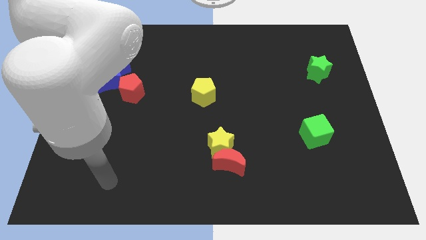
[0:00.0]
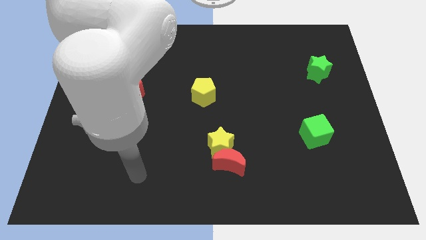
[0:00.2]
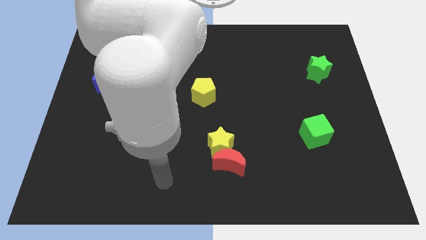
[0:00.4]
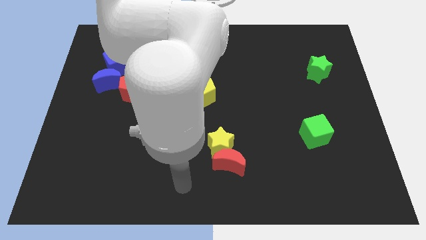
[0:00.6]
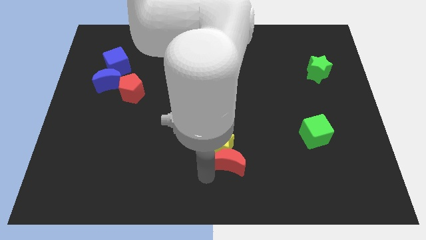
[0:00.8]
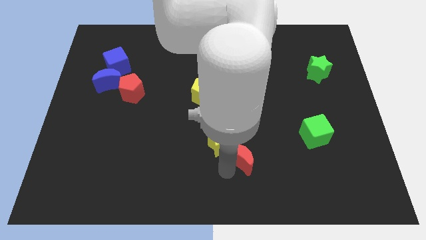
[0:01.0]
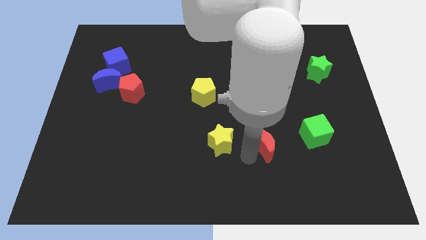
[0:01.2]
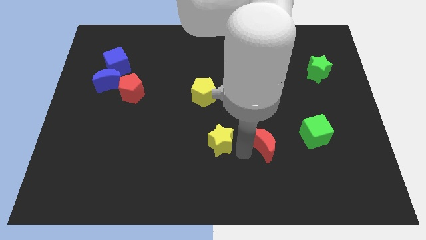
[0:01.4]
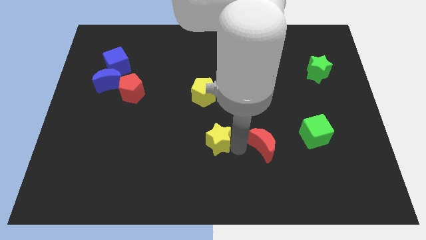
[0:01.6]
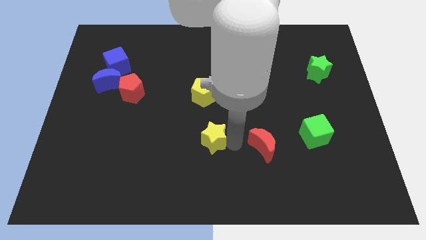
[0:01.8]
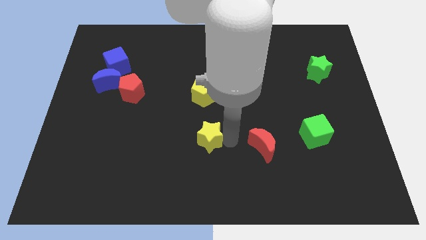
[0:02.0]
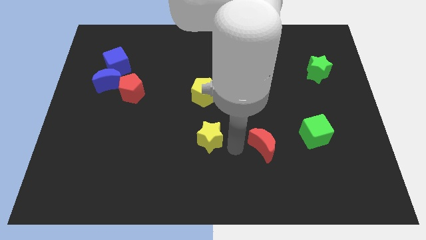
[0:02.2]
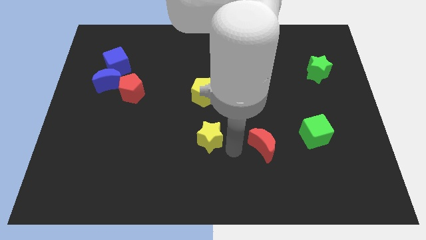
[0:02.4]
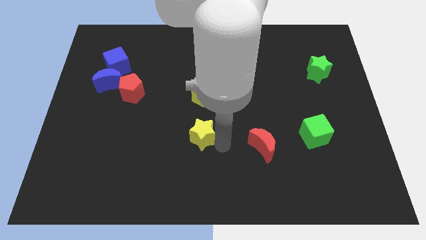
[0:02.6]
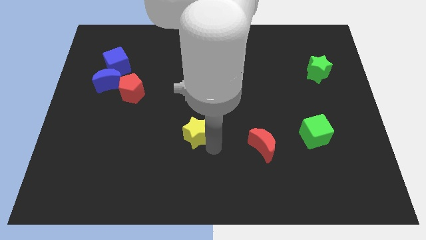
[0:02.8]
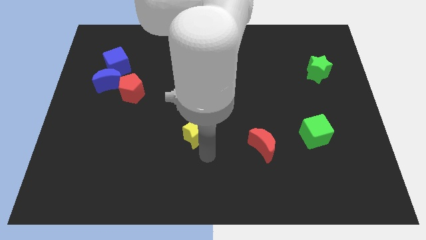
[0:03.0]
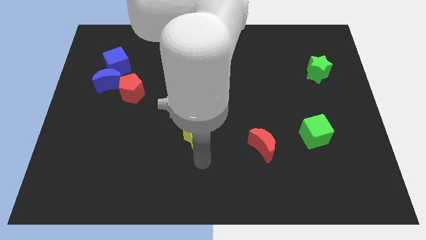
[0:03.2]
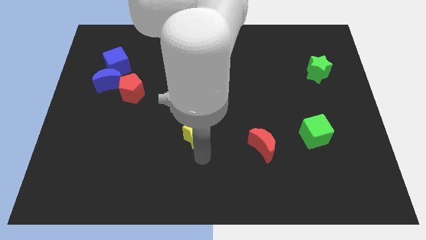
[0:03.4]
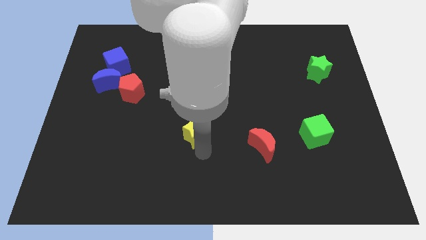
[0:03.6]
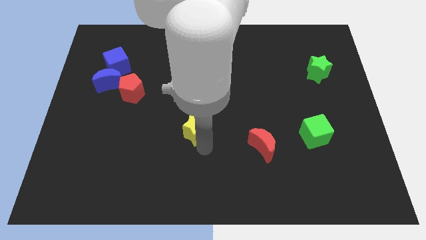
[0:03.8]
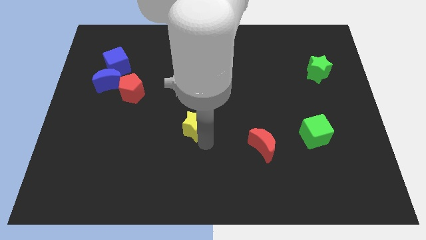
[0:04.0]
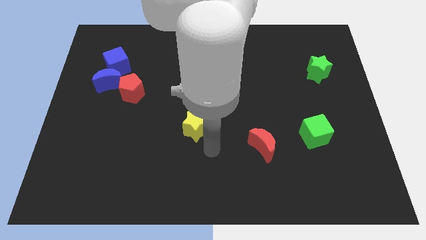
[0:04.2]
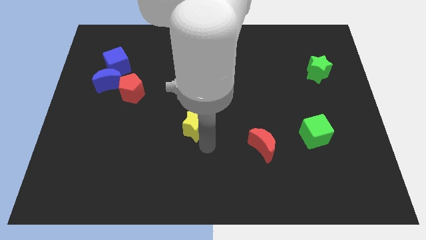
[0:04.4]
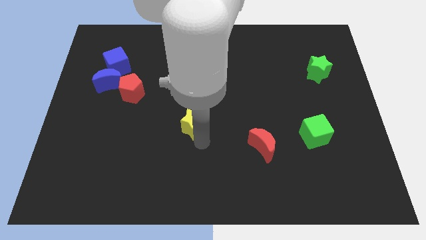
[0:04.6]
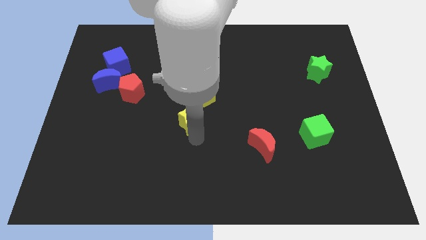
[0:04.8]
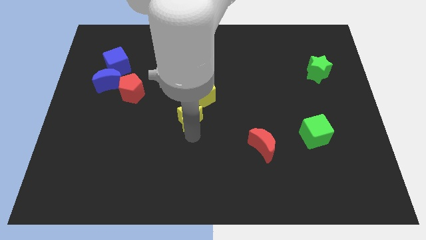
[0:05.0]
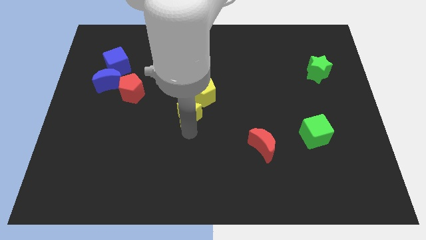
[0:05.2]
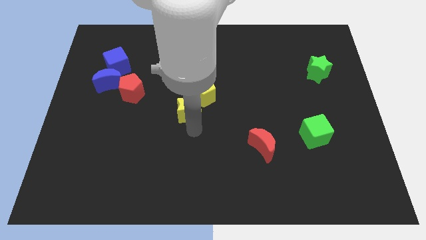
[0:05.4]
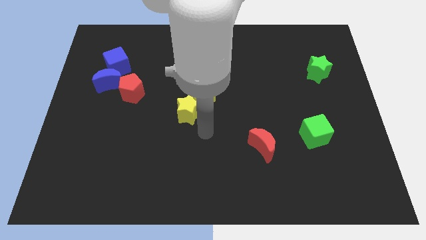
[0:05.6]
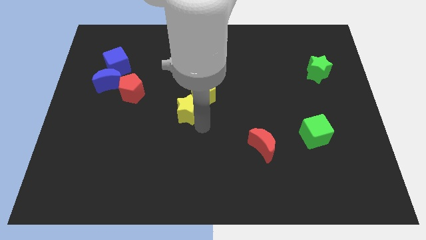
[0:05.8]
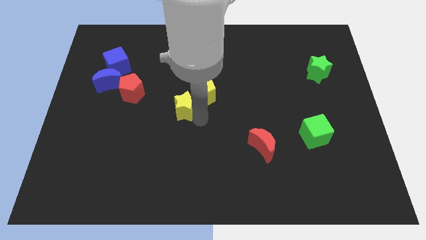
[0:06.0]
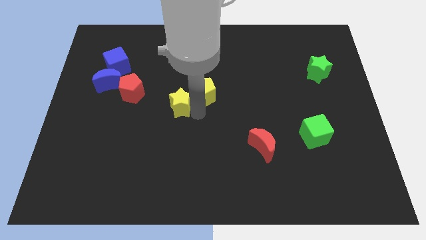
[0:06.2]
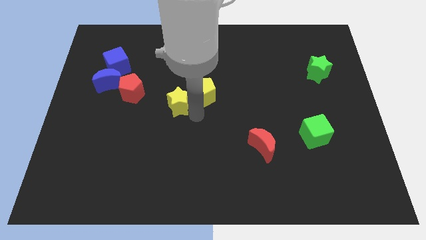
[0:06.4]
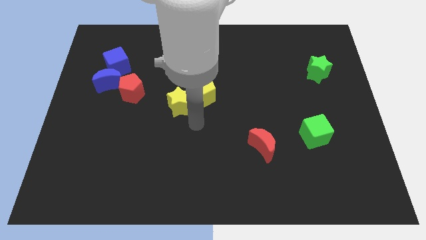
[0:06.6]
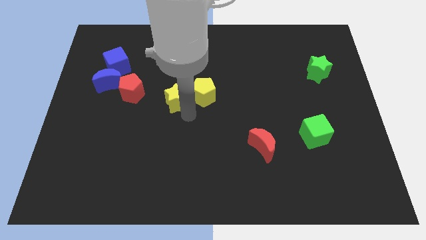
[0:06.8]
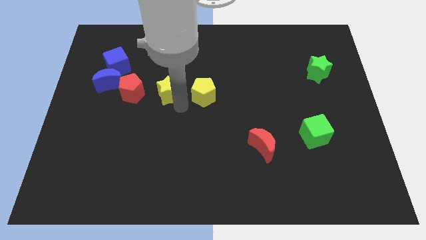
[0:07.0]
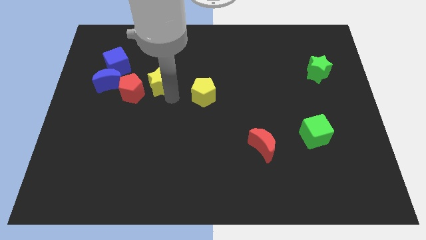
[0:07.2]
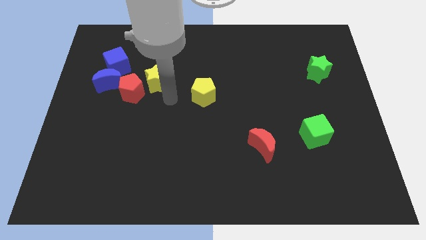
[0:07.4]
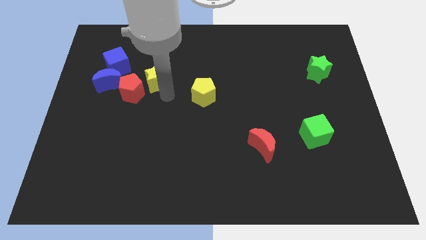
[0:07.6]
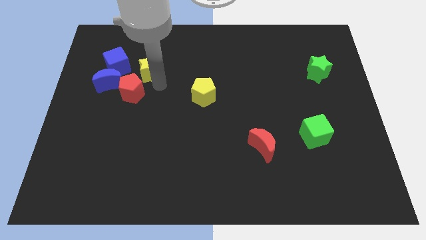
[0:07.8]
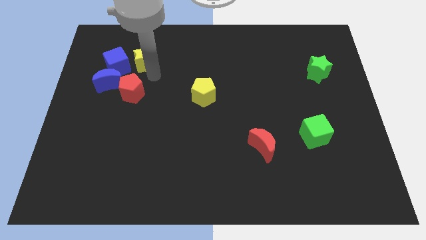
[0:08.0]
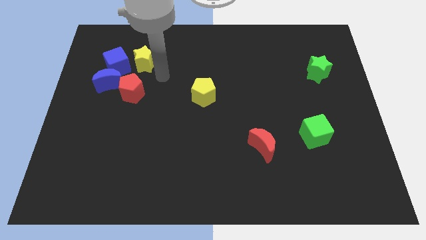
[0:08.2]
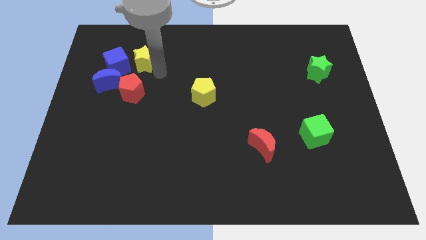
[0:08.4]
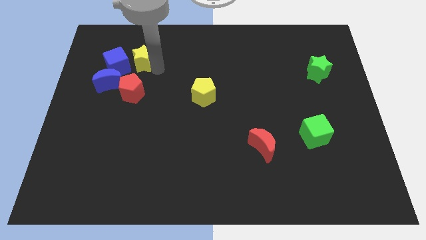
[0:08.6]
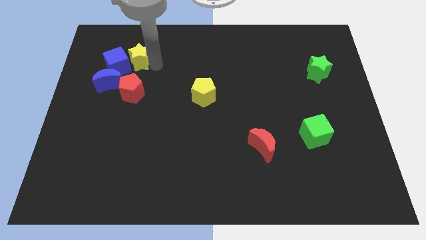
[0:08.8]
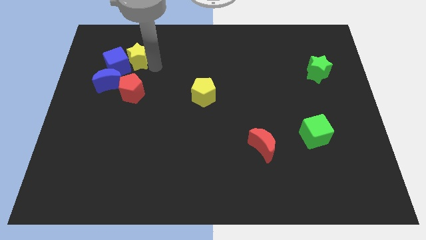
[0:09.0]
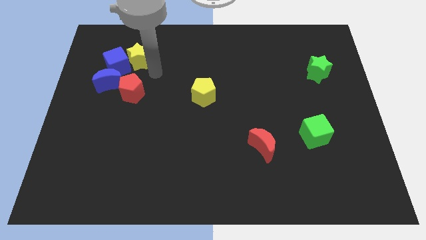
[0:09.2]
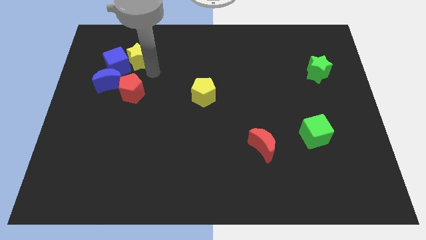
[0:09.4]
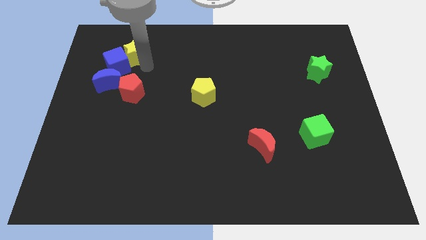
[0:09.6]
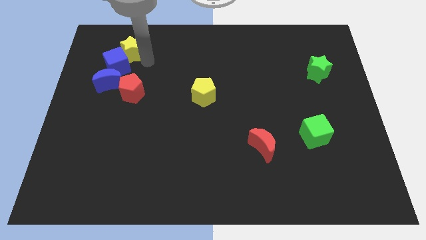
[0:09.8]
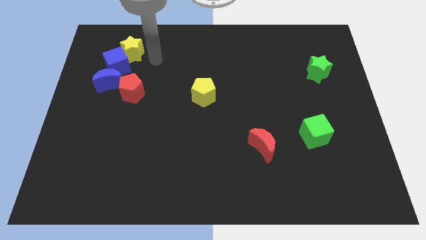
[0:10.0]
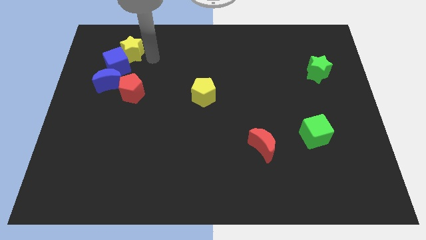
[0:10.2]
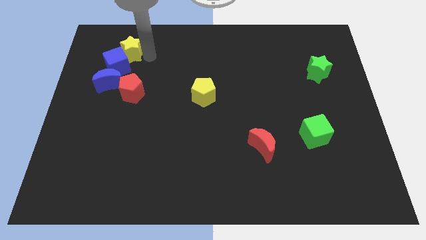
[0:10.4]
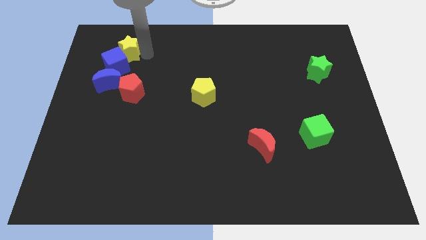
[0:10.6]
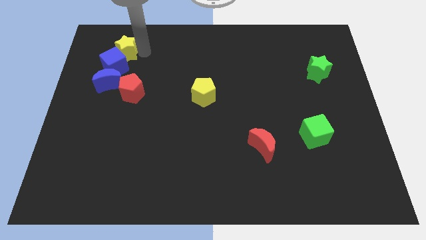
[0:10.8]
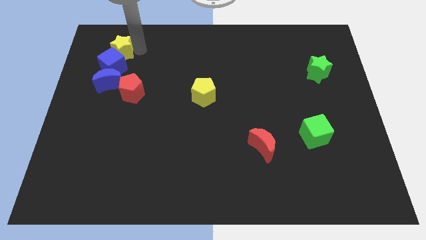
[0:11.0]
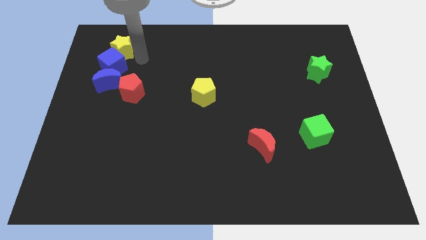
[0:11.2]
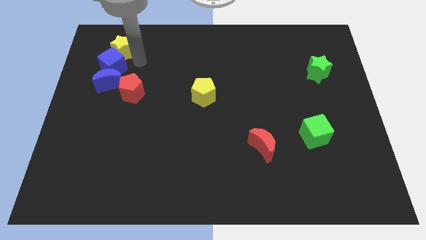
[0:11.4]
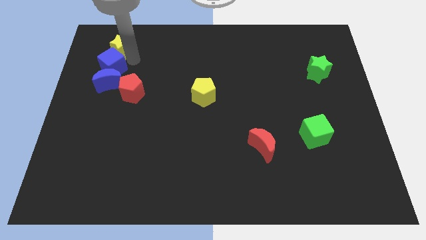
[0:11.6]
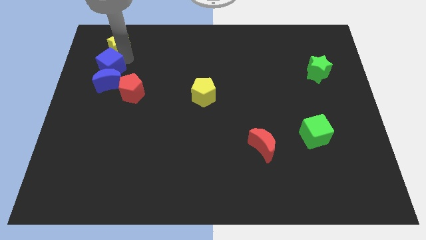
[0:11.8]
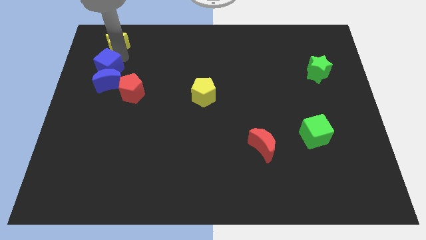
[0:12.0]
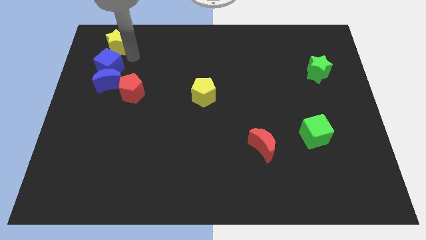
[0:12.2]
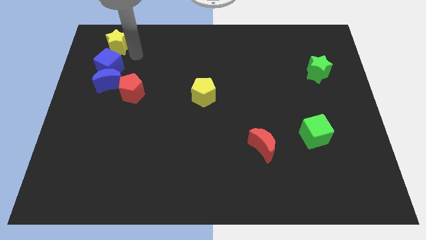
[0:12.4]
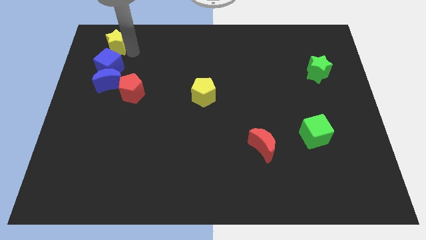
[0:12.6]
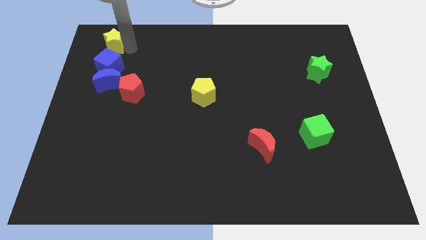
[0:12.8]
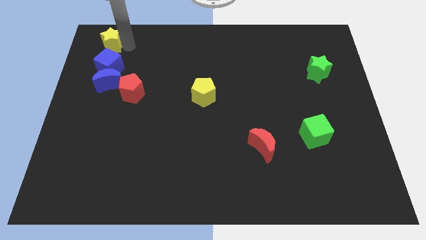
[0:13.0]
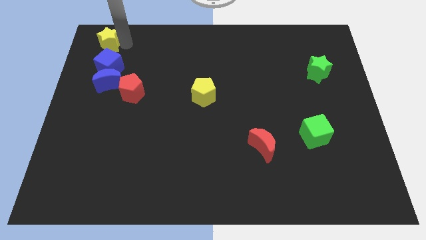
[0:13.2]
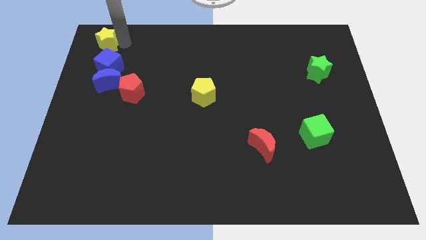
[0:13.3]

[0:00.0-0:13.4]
push the yellow star to the top left

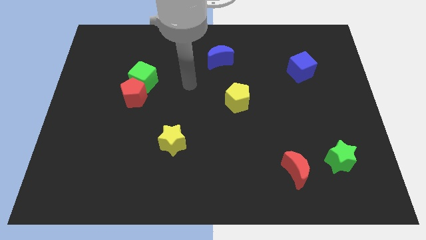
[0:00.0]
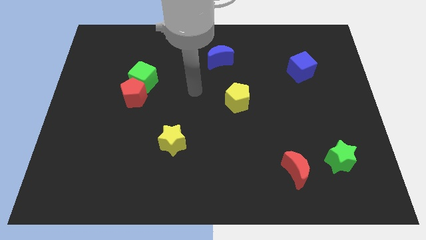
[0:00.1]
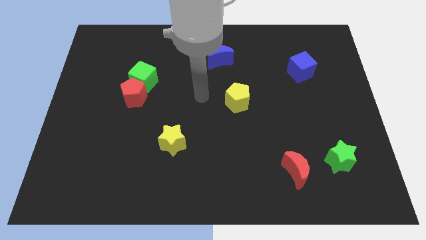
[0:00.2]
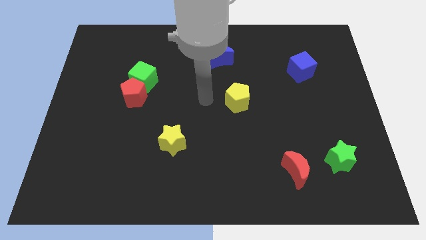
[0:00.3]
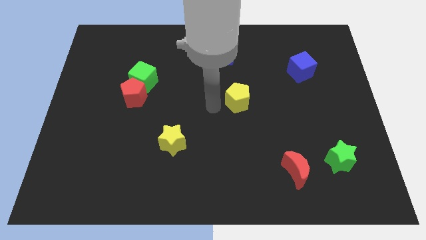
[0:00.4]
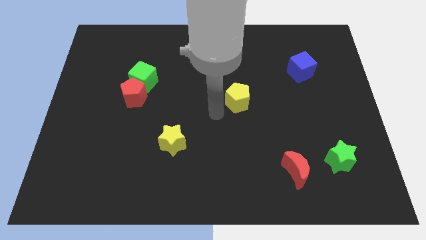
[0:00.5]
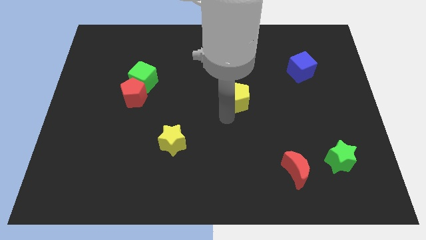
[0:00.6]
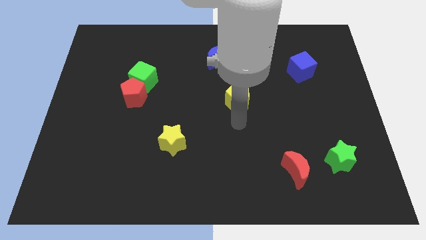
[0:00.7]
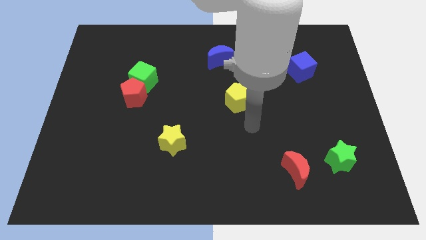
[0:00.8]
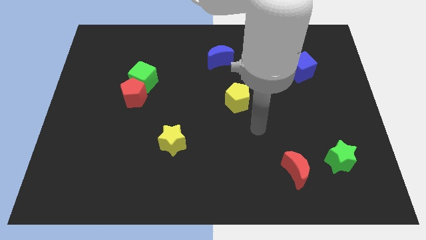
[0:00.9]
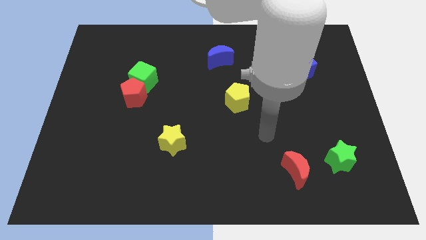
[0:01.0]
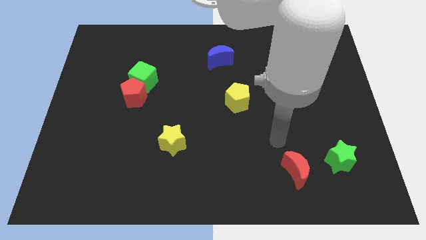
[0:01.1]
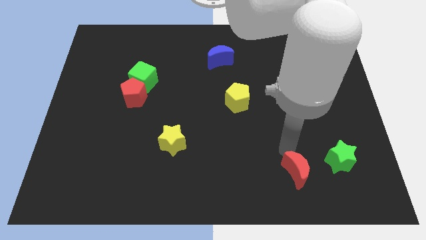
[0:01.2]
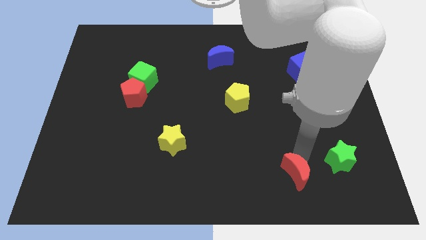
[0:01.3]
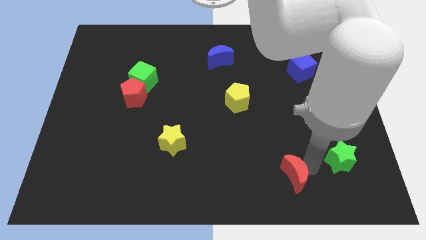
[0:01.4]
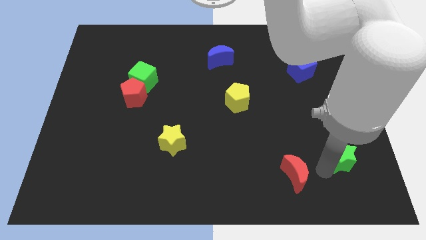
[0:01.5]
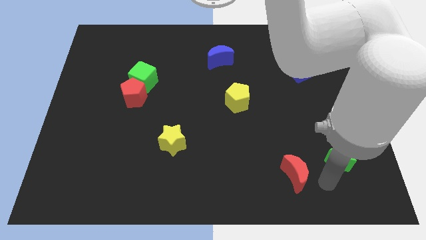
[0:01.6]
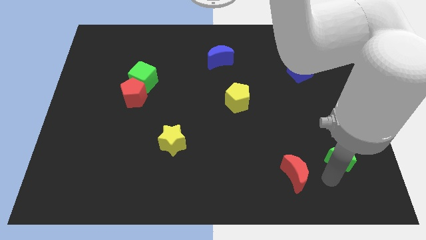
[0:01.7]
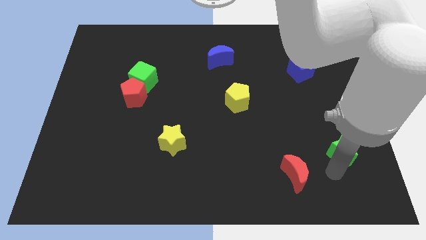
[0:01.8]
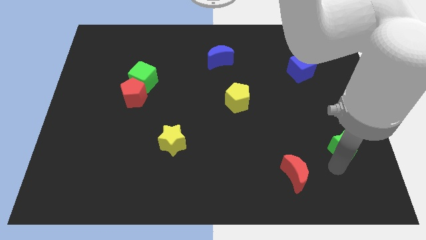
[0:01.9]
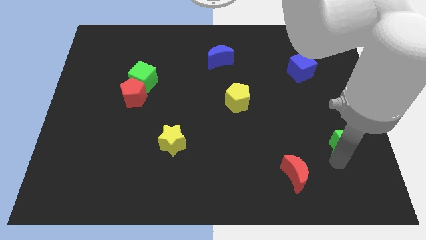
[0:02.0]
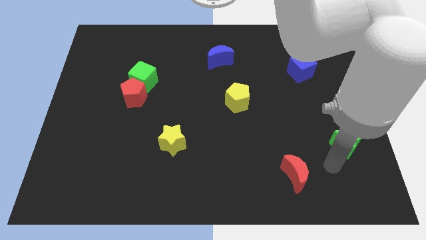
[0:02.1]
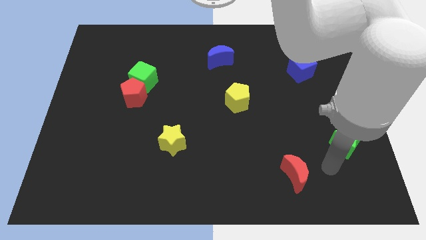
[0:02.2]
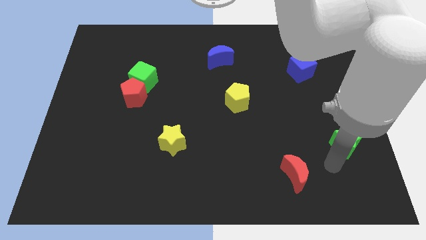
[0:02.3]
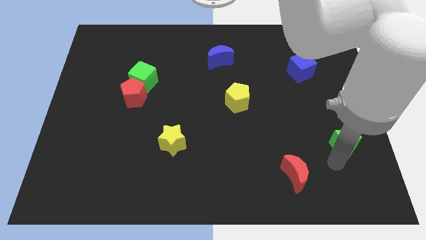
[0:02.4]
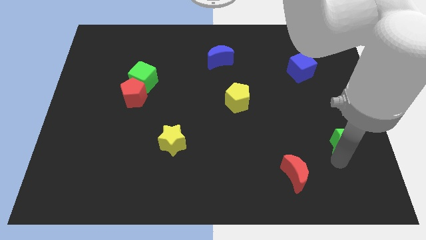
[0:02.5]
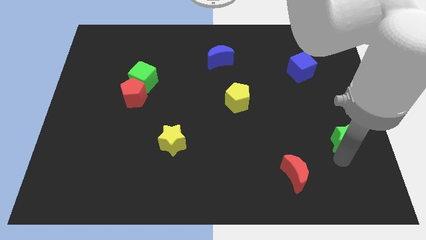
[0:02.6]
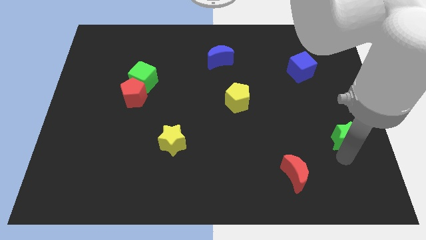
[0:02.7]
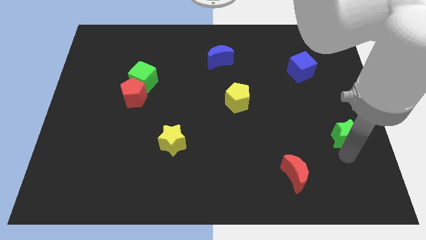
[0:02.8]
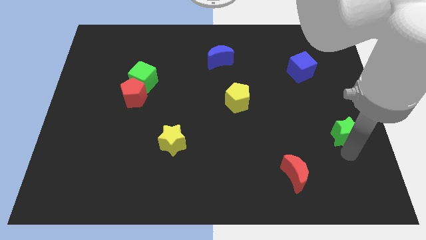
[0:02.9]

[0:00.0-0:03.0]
slide the green star to the right side of the board
